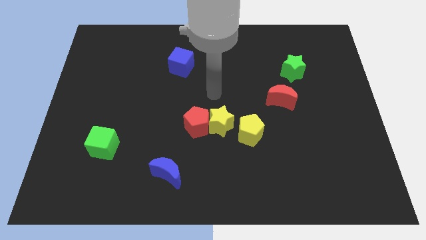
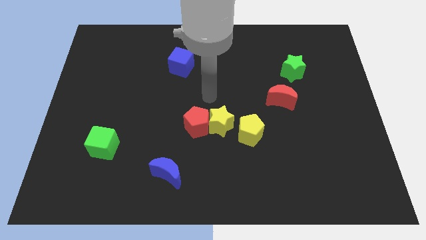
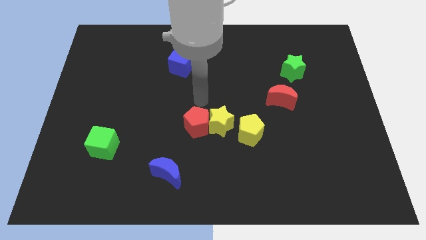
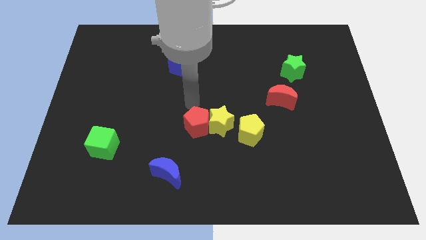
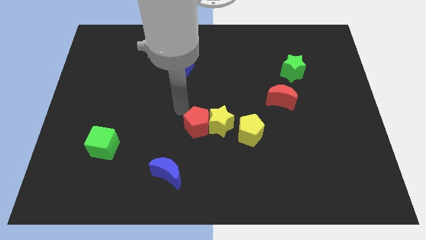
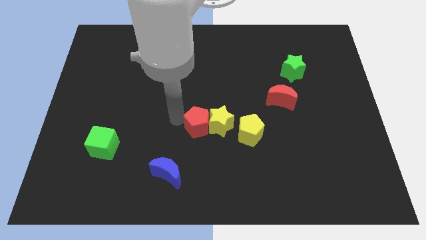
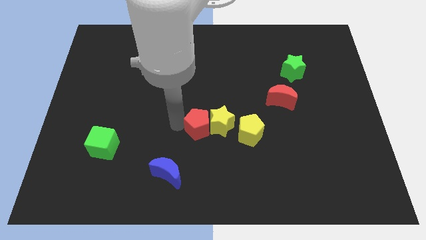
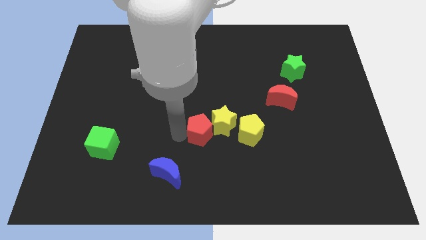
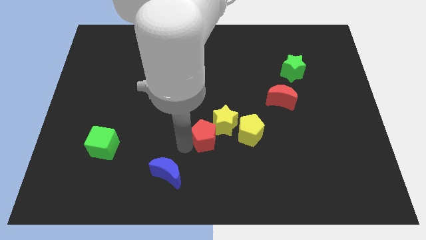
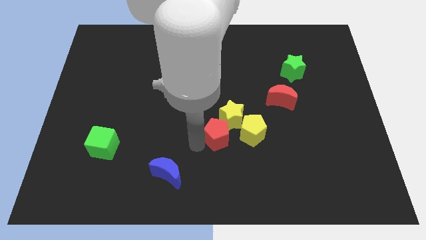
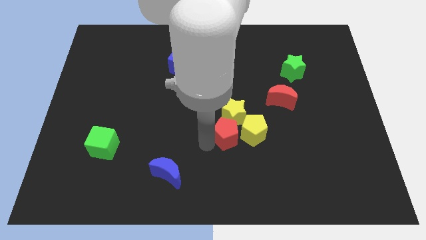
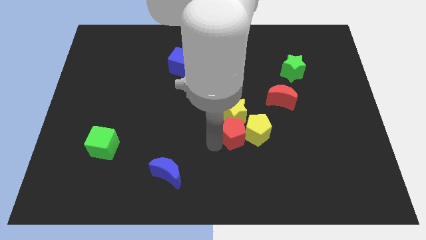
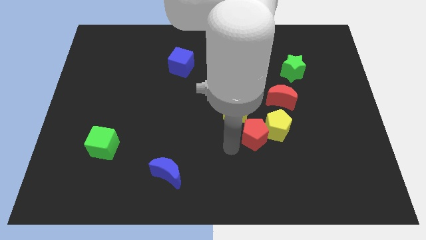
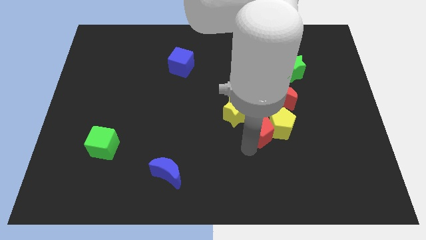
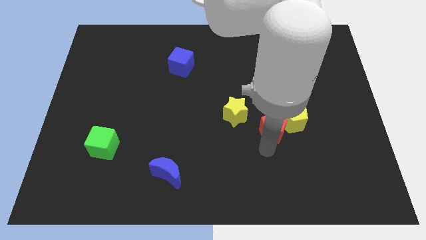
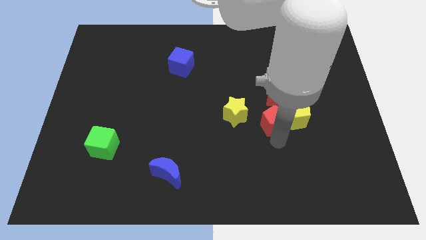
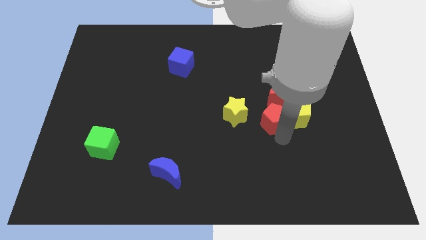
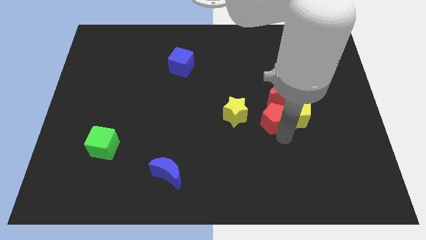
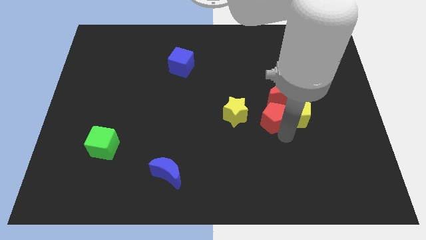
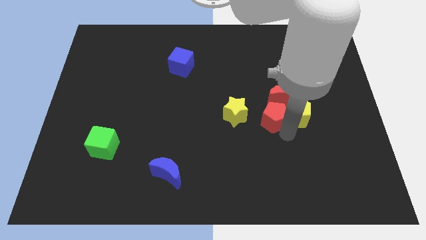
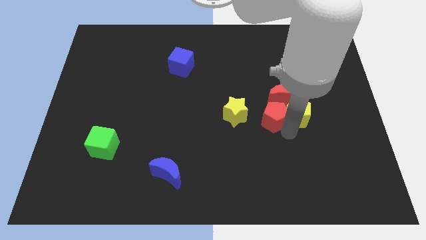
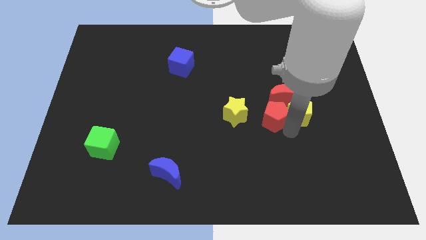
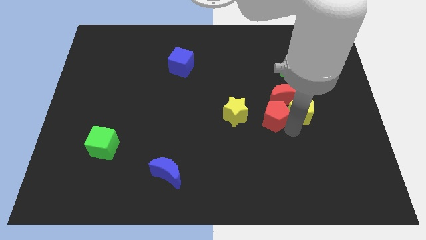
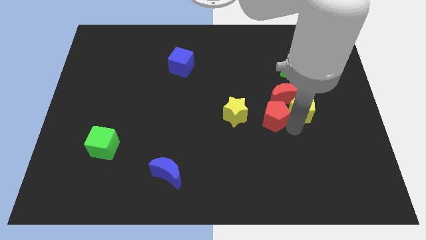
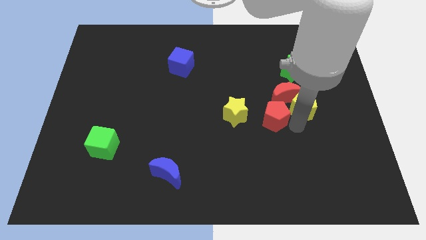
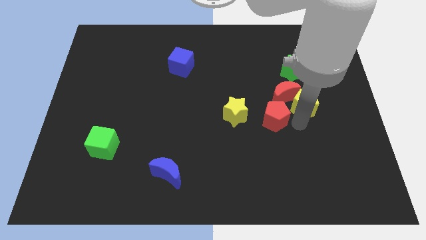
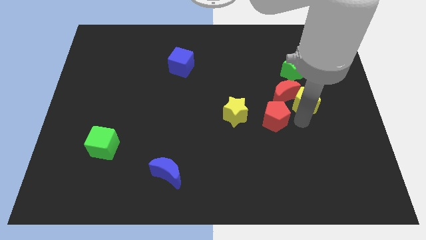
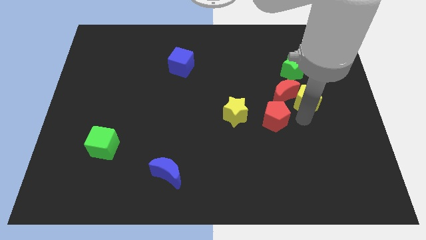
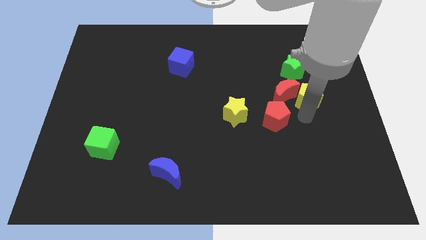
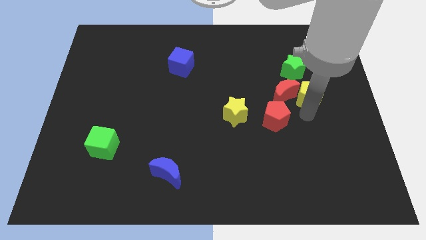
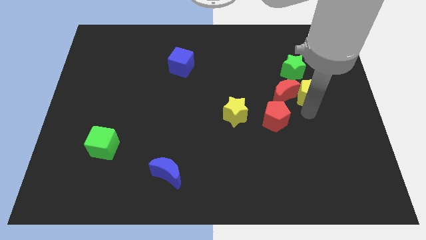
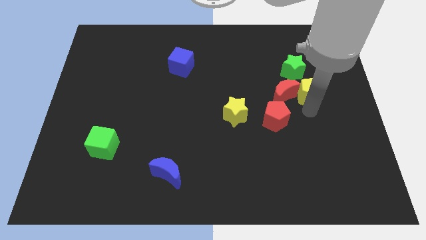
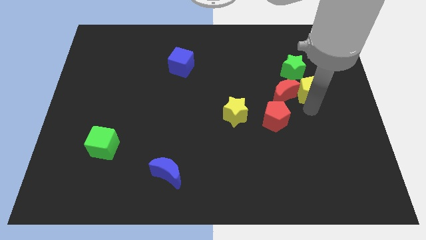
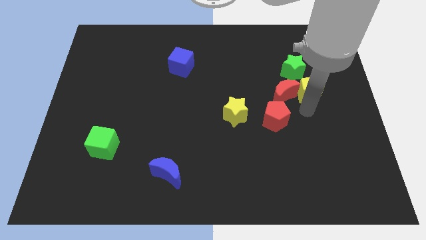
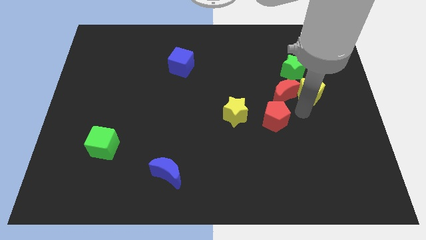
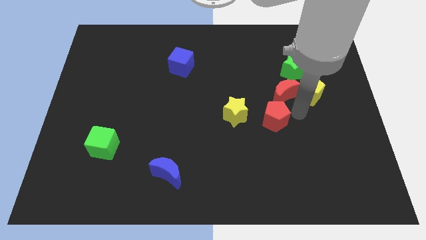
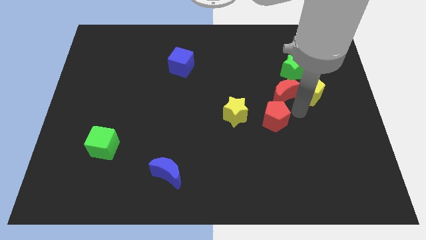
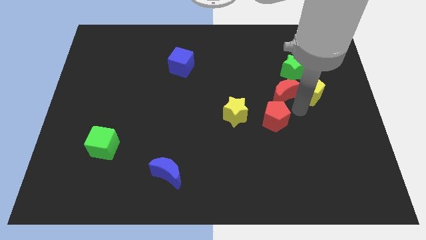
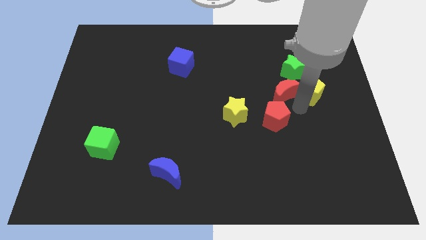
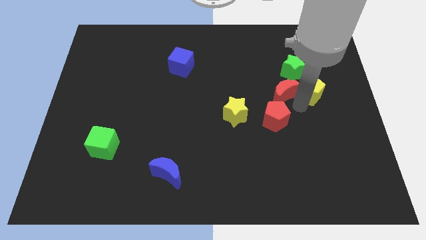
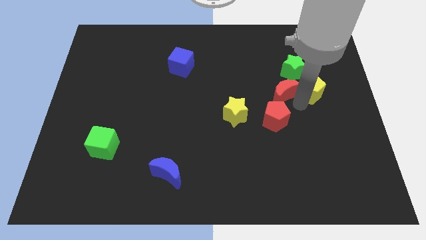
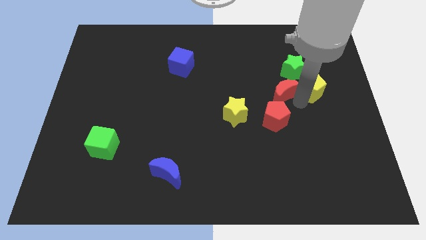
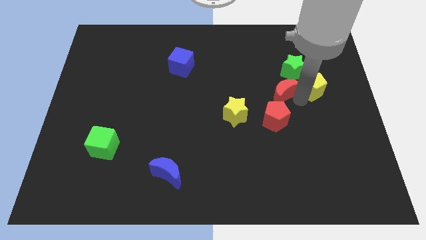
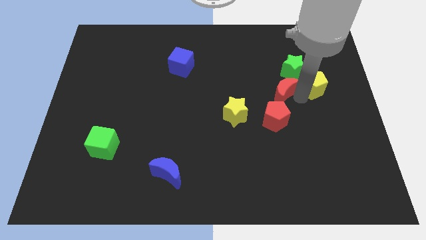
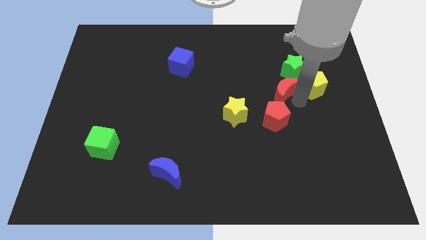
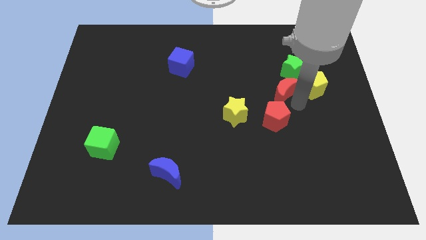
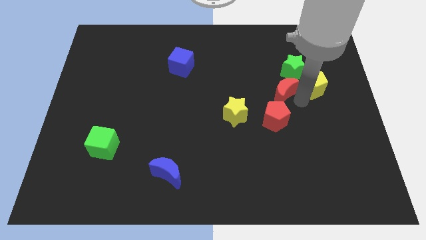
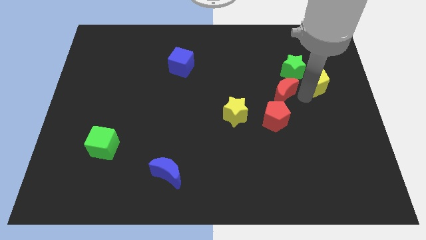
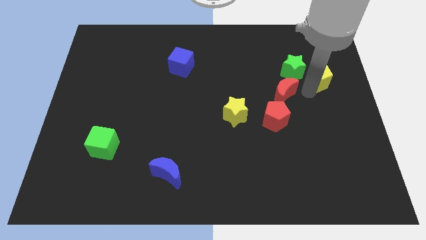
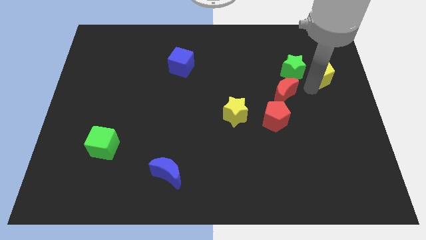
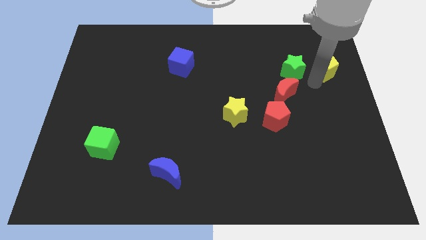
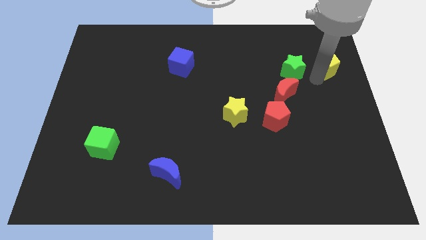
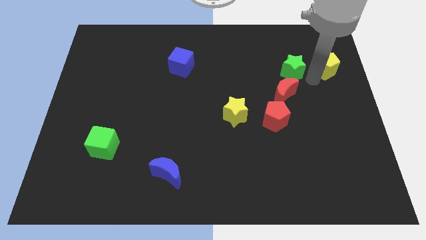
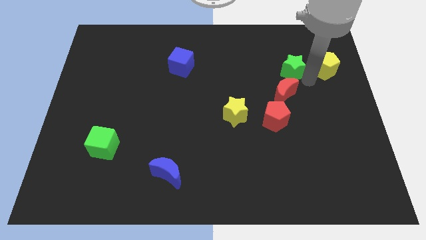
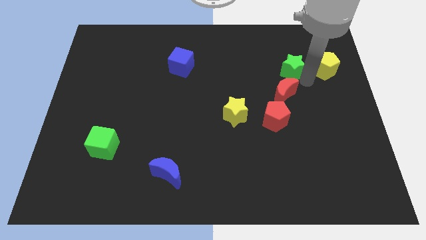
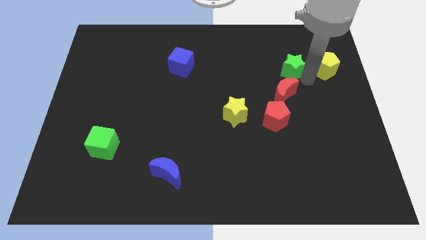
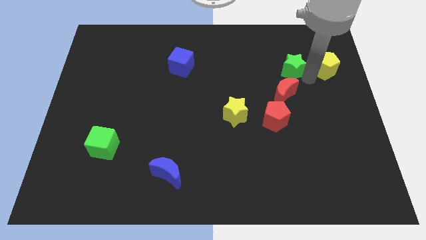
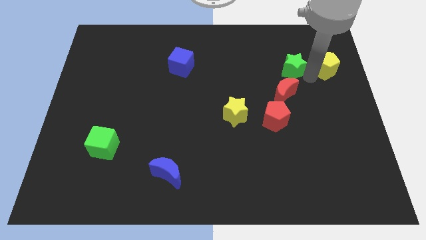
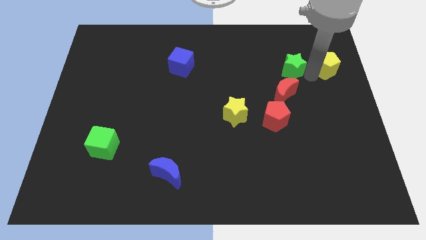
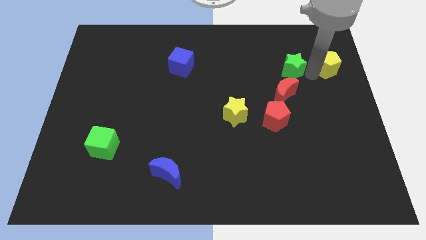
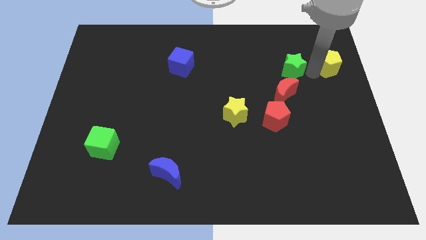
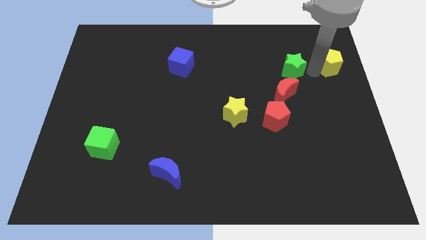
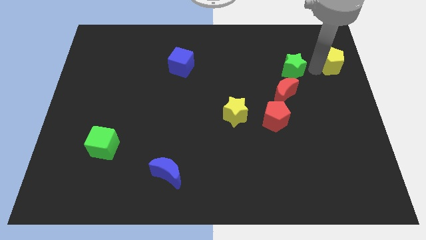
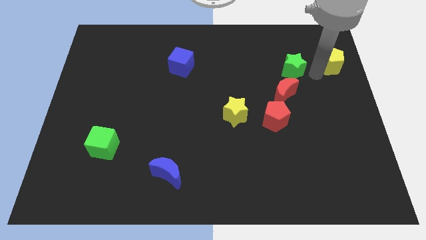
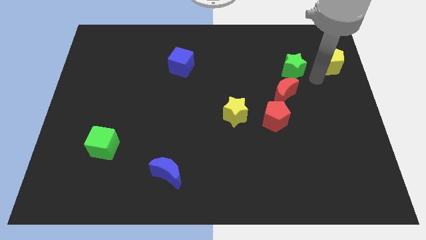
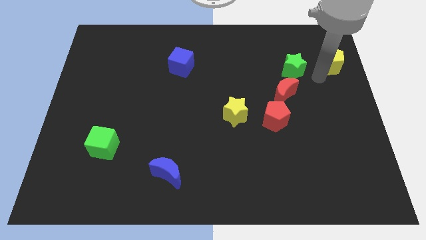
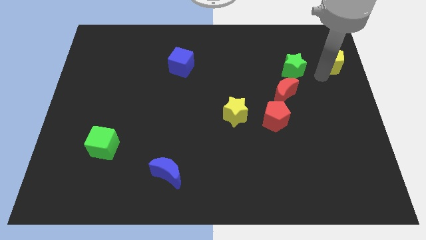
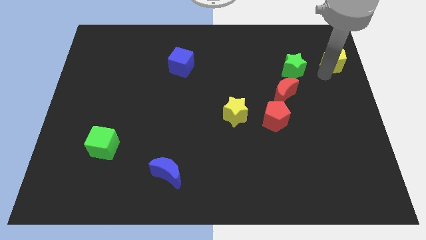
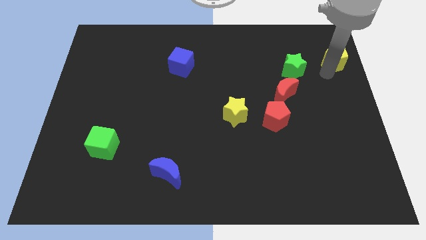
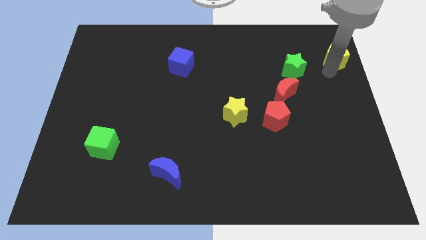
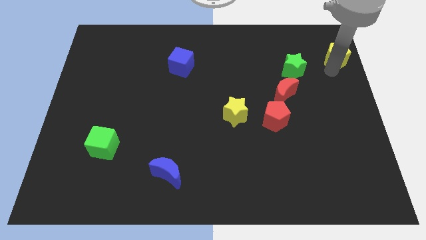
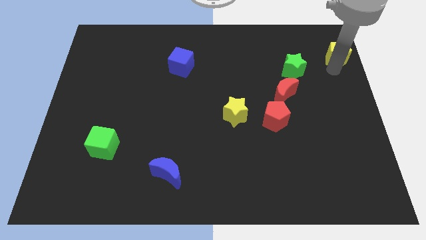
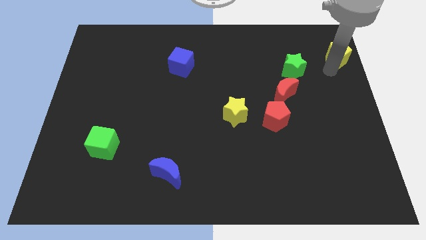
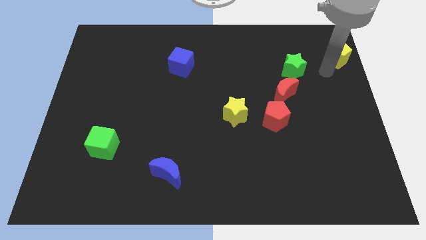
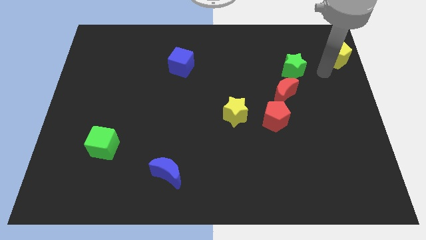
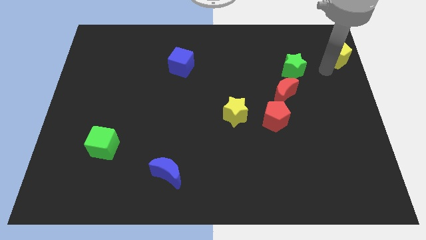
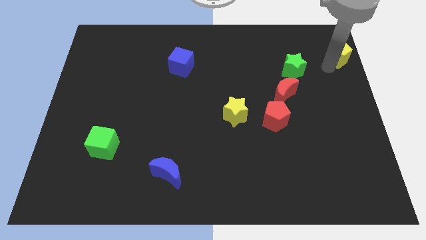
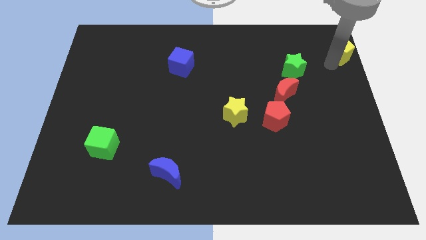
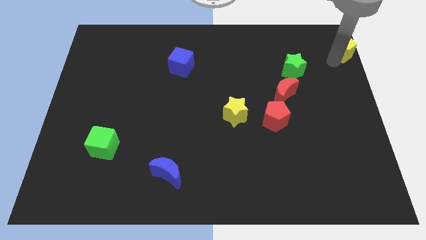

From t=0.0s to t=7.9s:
put the yellow pentagon to the upper right corner
